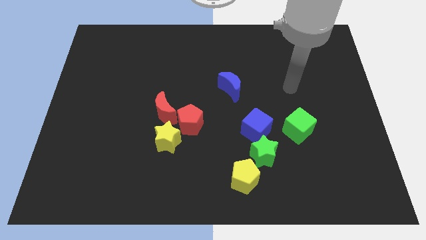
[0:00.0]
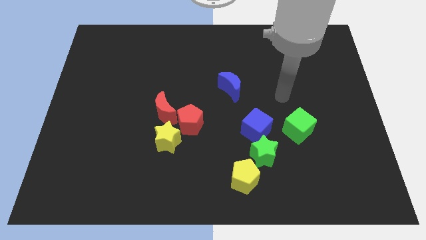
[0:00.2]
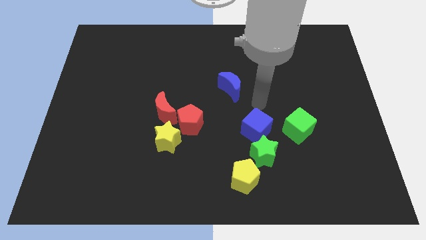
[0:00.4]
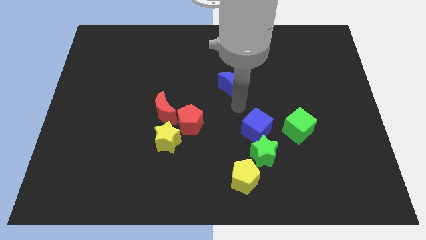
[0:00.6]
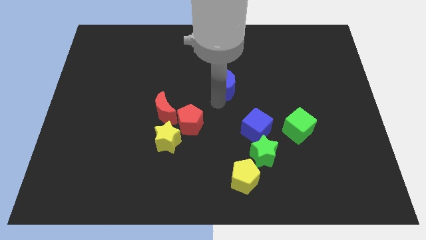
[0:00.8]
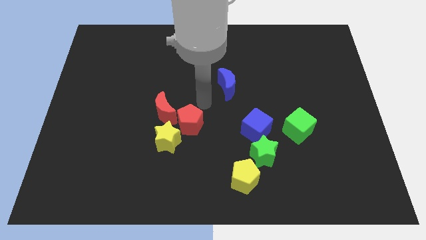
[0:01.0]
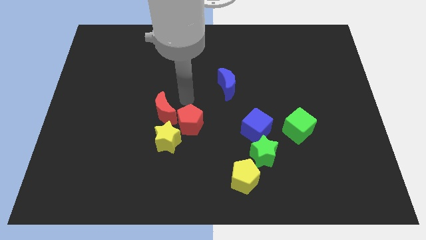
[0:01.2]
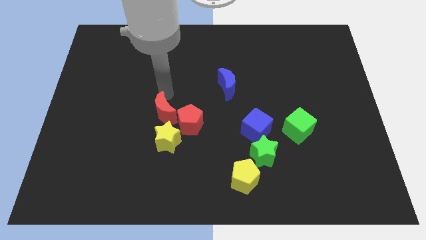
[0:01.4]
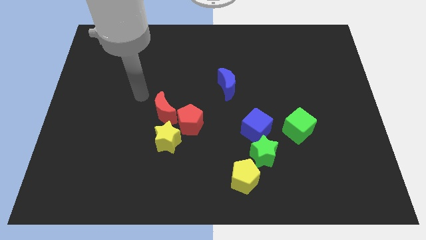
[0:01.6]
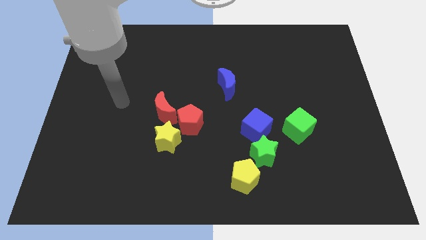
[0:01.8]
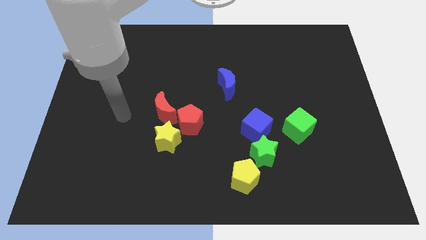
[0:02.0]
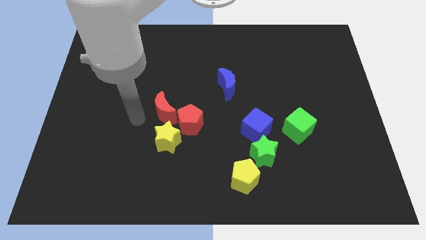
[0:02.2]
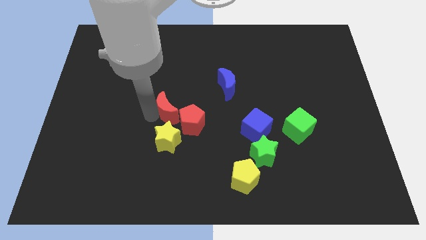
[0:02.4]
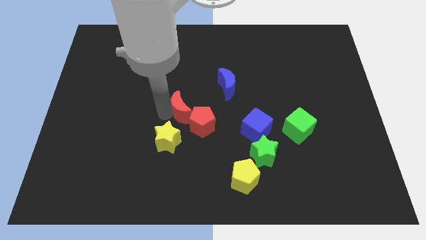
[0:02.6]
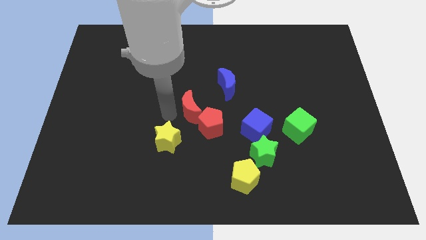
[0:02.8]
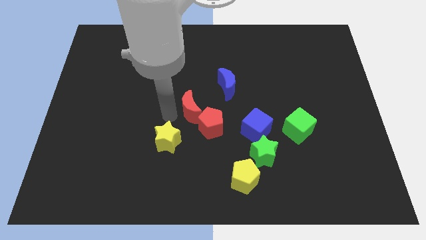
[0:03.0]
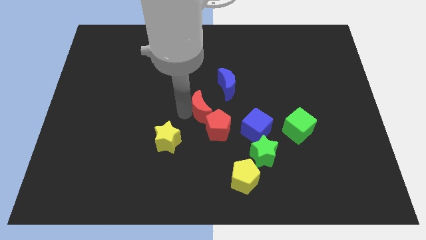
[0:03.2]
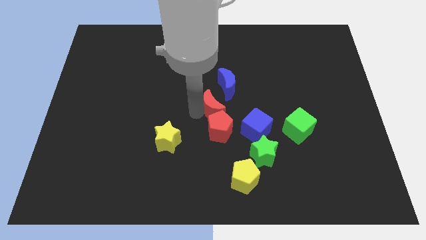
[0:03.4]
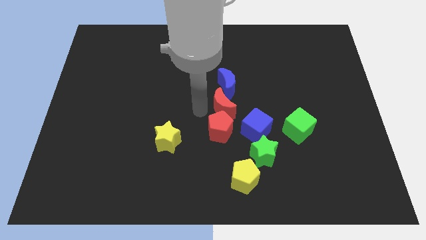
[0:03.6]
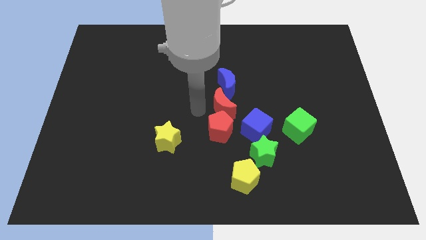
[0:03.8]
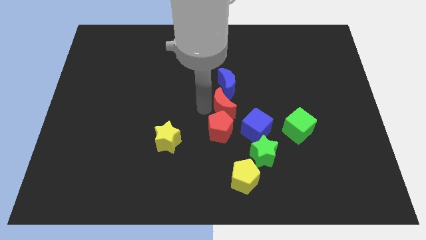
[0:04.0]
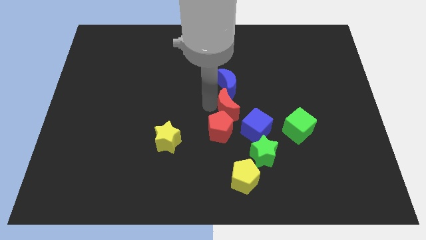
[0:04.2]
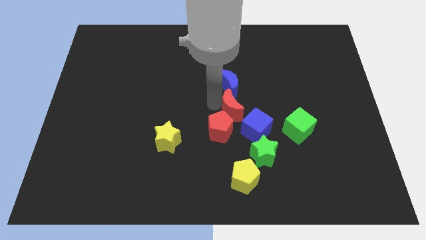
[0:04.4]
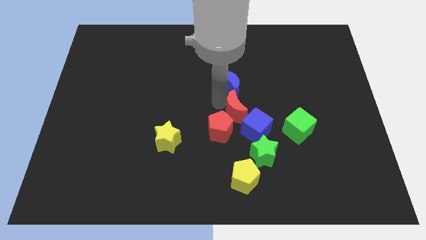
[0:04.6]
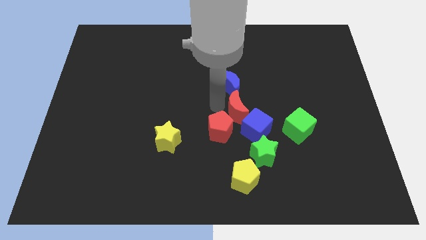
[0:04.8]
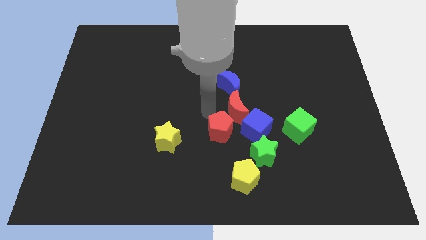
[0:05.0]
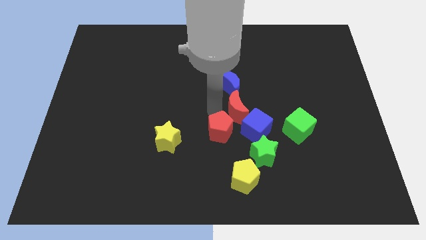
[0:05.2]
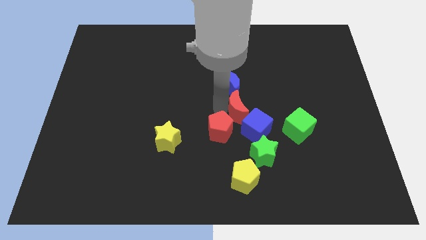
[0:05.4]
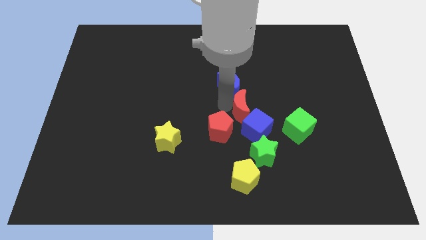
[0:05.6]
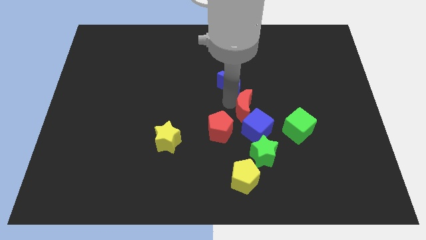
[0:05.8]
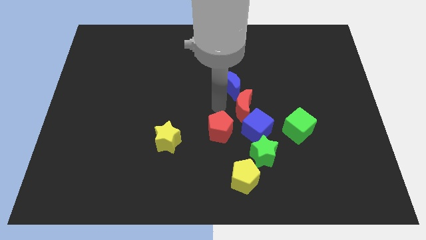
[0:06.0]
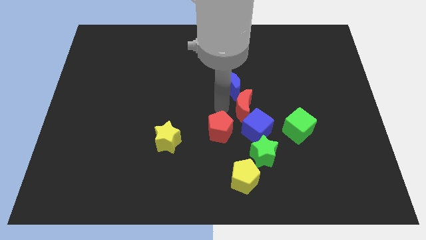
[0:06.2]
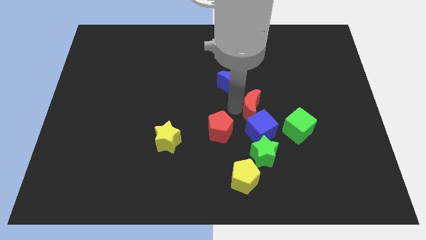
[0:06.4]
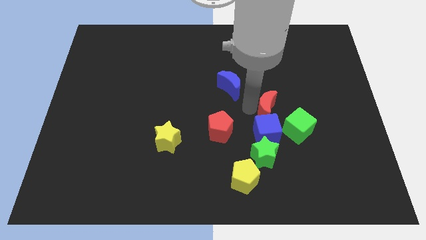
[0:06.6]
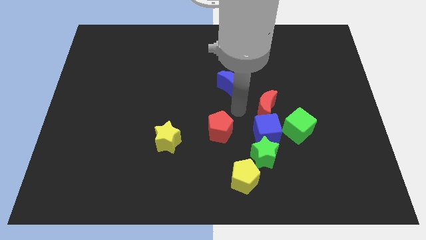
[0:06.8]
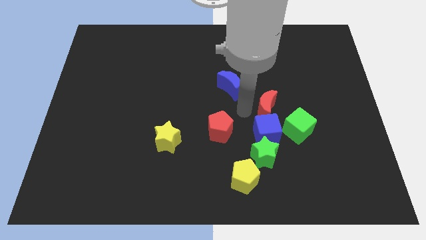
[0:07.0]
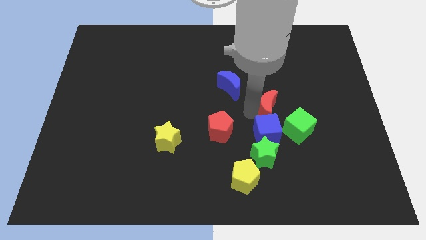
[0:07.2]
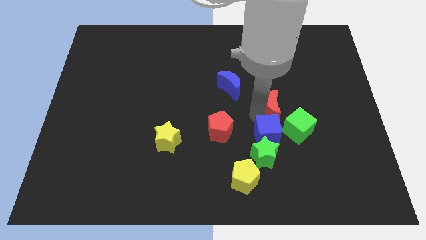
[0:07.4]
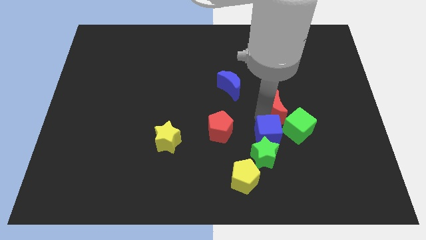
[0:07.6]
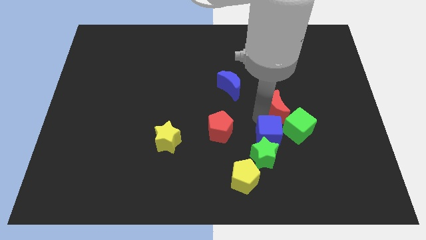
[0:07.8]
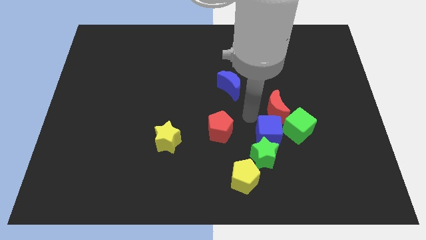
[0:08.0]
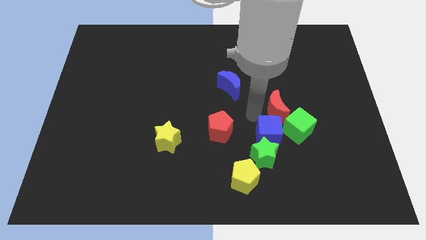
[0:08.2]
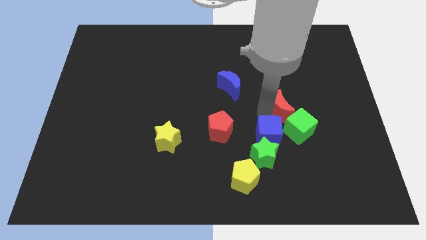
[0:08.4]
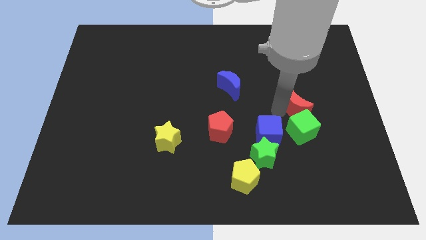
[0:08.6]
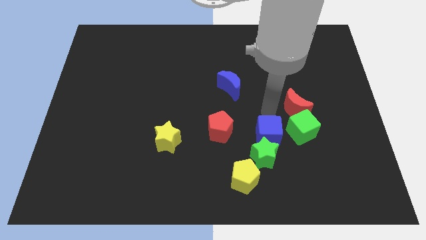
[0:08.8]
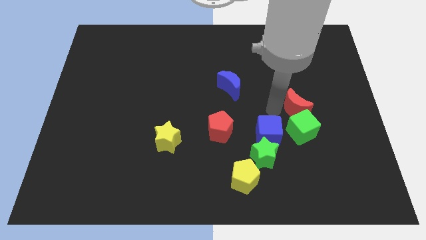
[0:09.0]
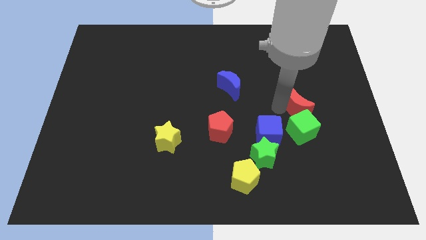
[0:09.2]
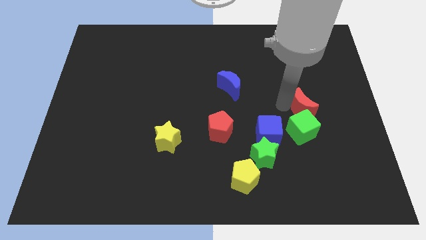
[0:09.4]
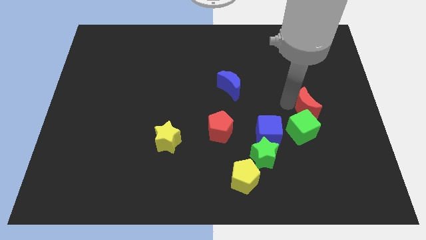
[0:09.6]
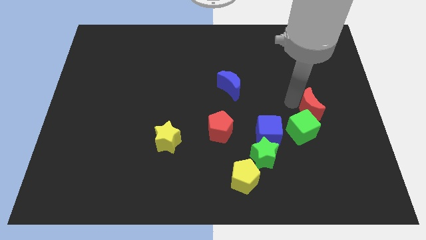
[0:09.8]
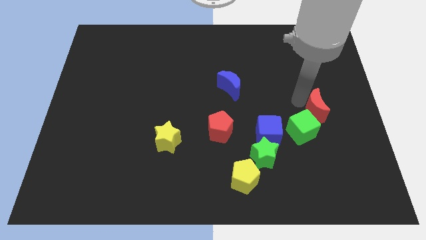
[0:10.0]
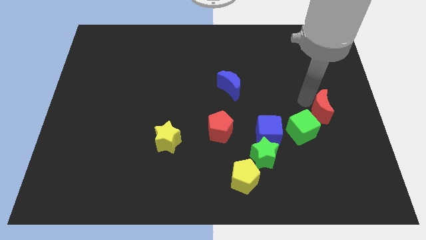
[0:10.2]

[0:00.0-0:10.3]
slide the red moon to the right side of the board

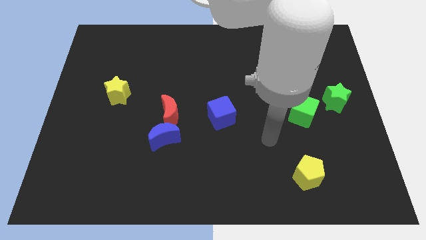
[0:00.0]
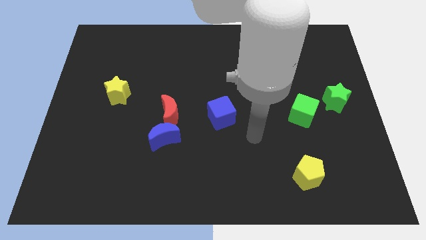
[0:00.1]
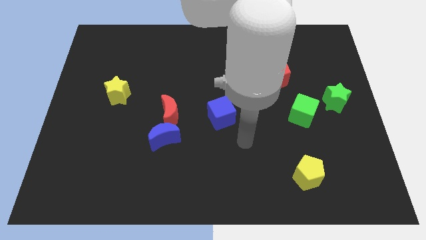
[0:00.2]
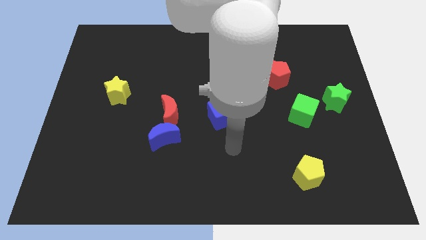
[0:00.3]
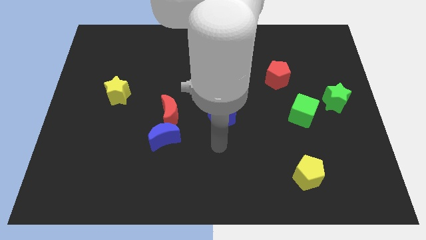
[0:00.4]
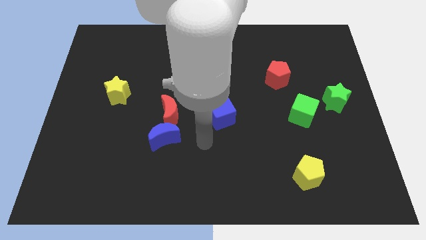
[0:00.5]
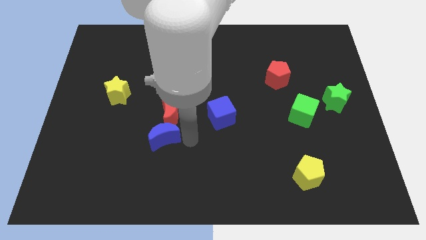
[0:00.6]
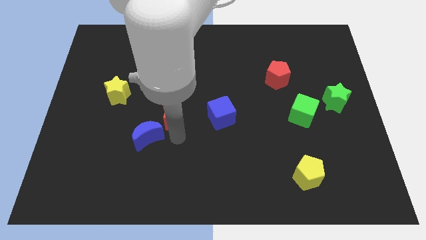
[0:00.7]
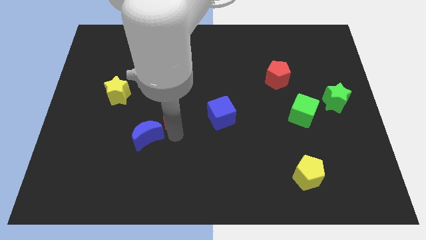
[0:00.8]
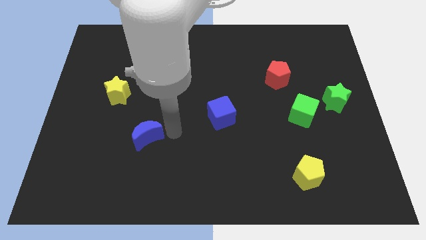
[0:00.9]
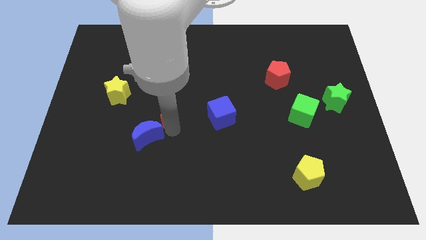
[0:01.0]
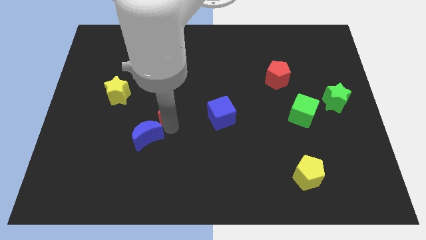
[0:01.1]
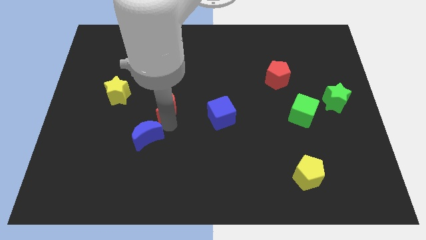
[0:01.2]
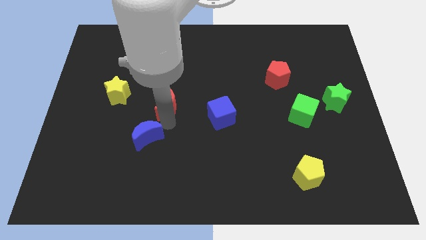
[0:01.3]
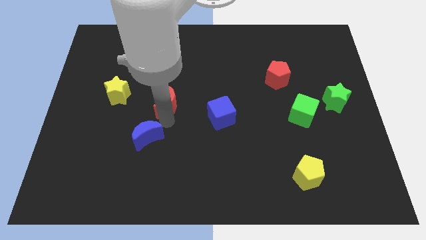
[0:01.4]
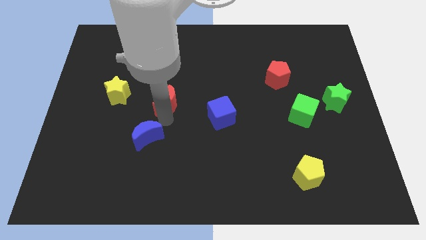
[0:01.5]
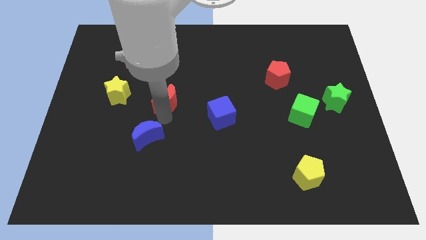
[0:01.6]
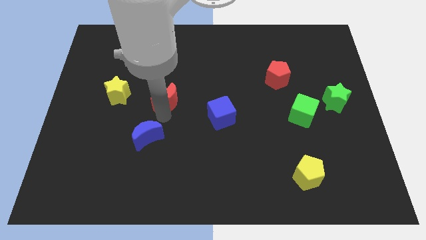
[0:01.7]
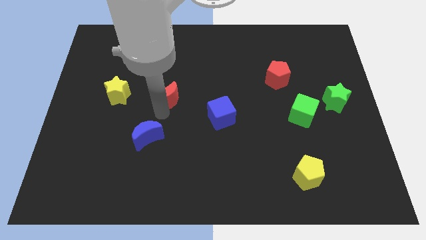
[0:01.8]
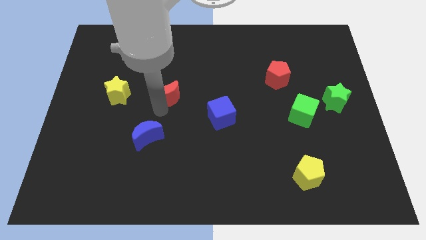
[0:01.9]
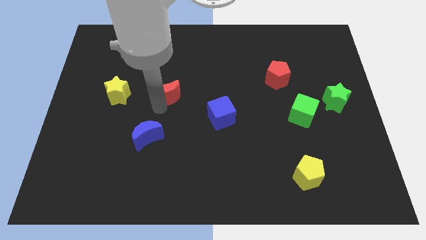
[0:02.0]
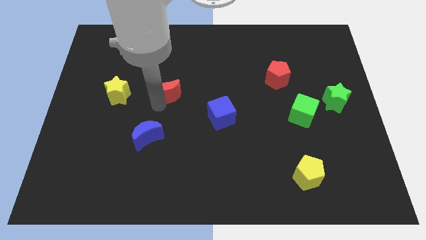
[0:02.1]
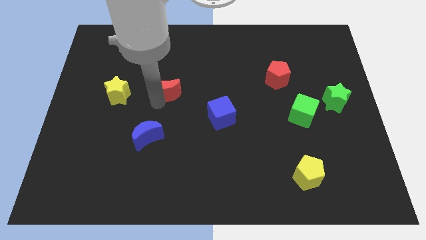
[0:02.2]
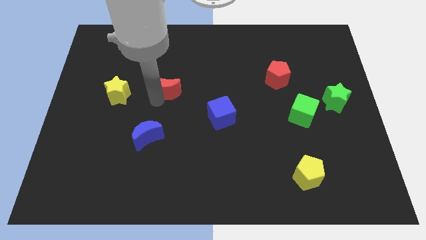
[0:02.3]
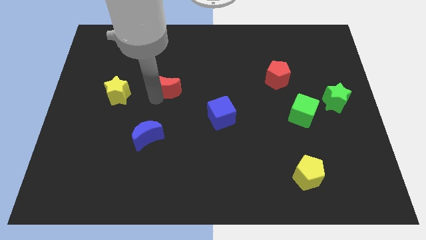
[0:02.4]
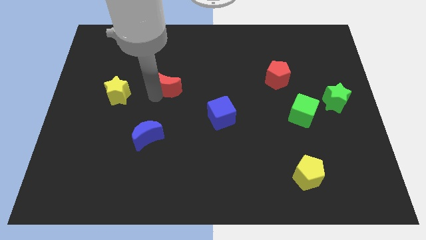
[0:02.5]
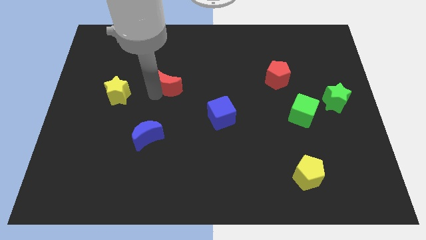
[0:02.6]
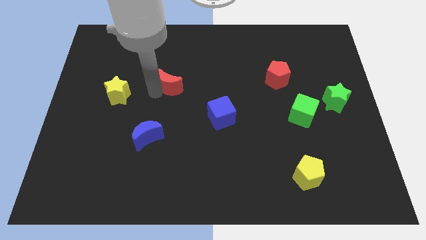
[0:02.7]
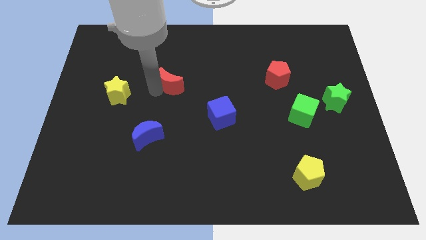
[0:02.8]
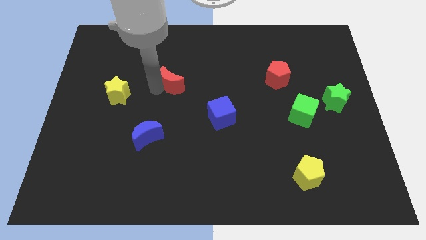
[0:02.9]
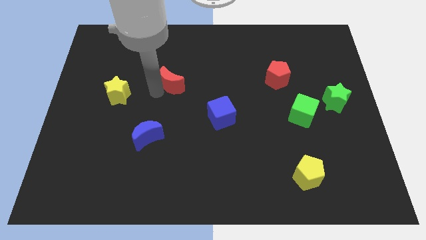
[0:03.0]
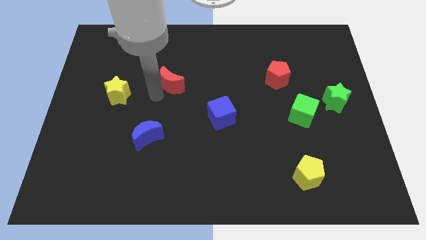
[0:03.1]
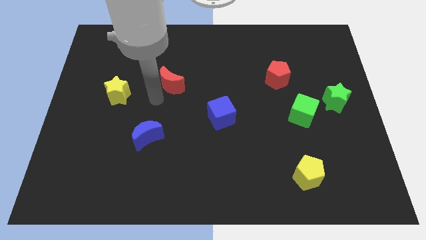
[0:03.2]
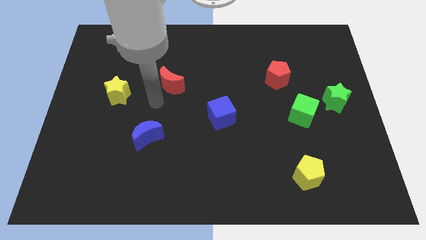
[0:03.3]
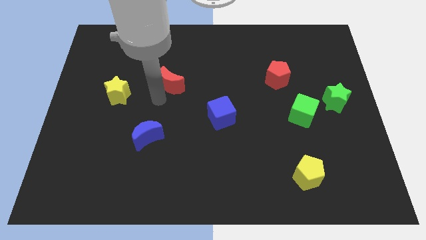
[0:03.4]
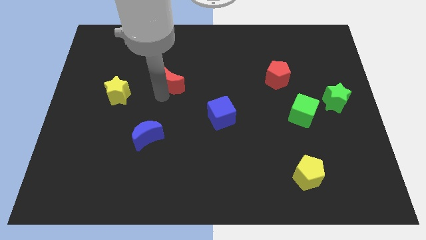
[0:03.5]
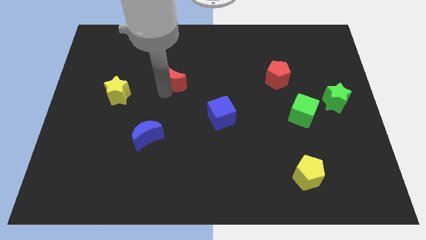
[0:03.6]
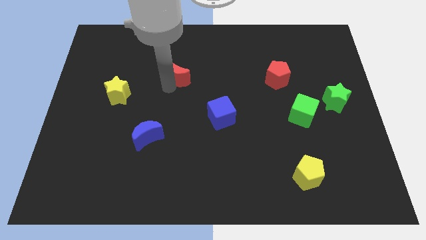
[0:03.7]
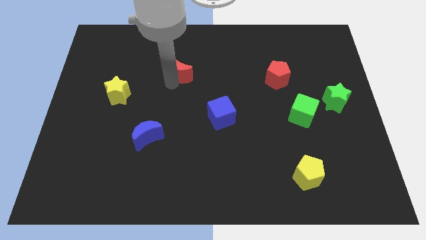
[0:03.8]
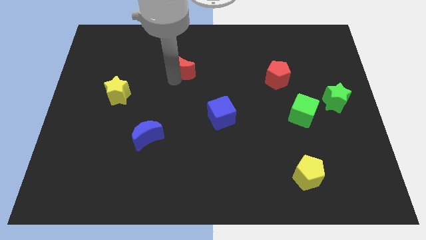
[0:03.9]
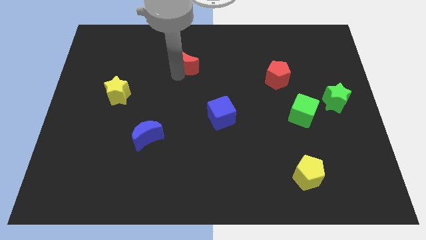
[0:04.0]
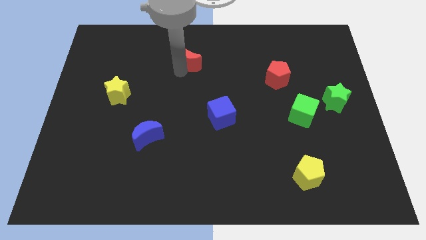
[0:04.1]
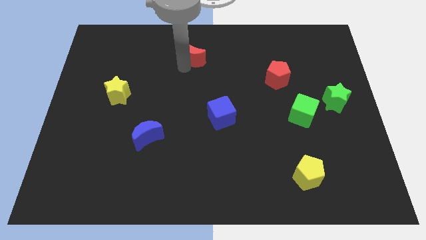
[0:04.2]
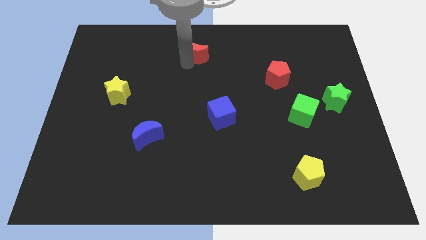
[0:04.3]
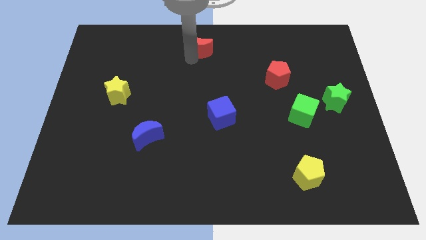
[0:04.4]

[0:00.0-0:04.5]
move the red moon to the top side
